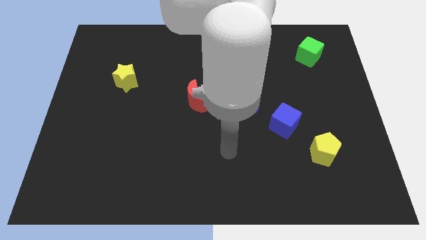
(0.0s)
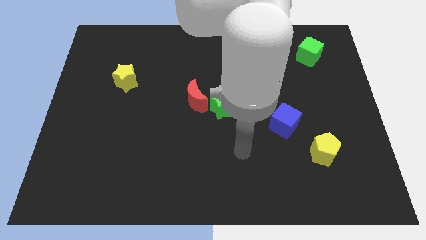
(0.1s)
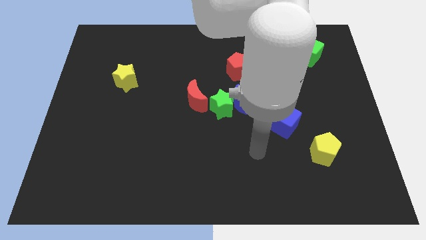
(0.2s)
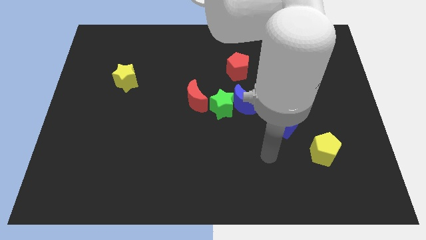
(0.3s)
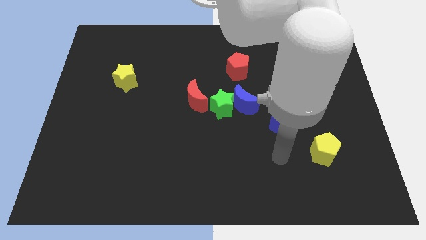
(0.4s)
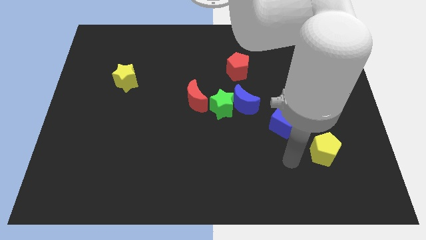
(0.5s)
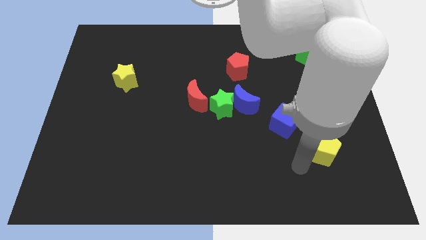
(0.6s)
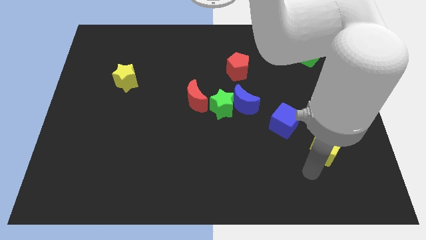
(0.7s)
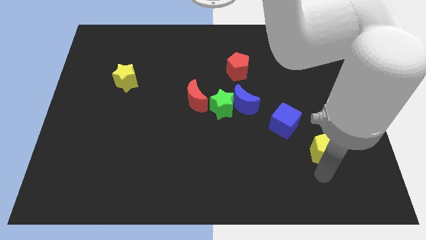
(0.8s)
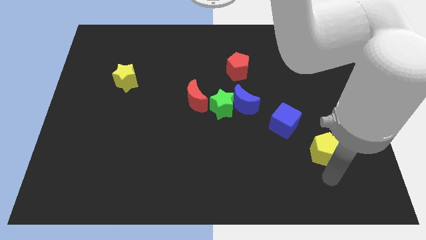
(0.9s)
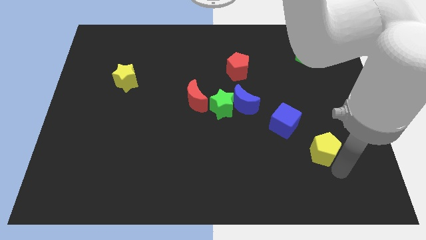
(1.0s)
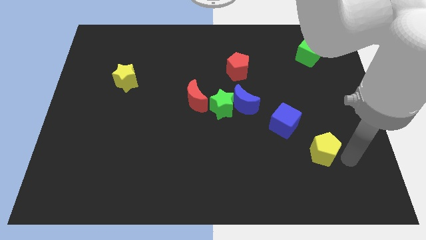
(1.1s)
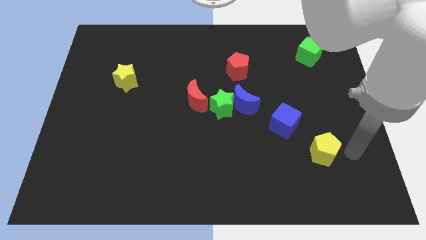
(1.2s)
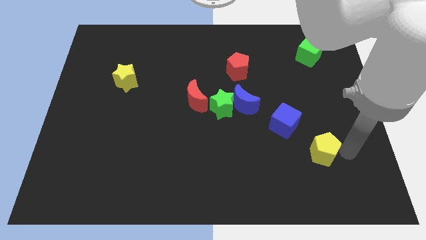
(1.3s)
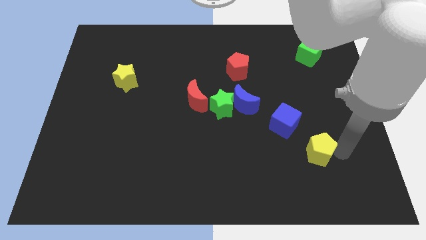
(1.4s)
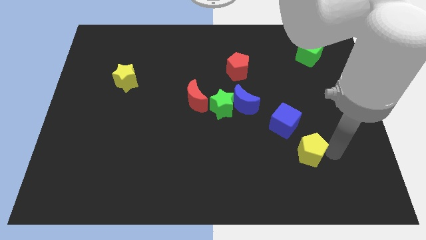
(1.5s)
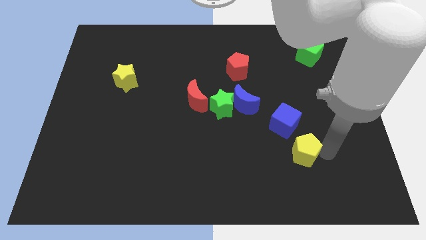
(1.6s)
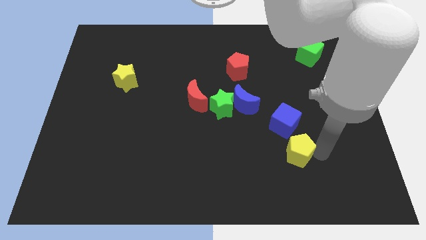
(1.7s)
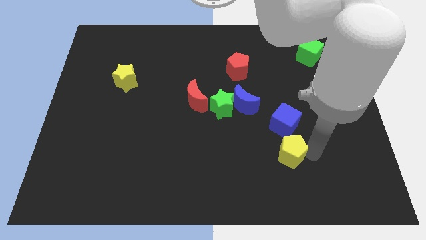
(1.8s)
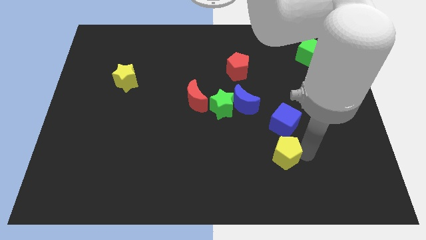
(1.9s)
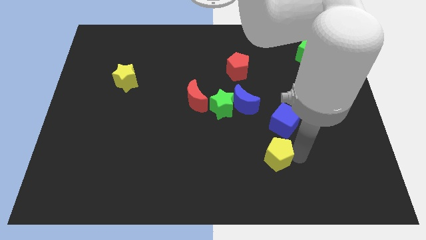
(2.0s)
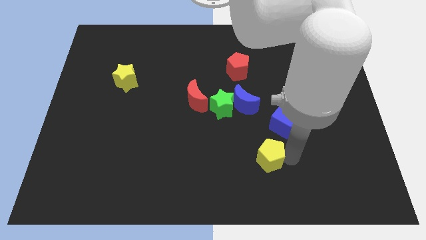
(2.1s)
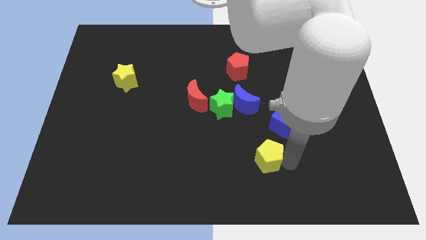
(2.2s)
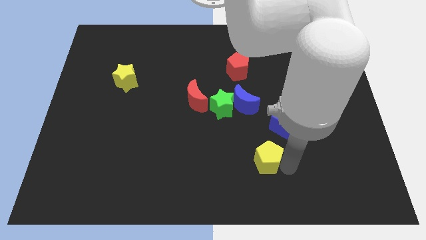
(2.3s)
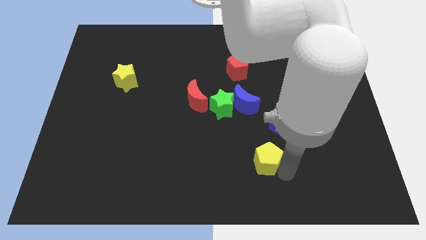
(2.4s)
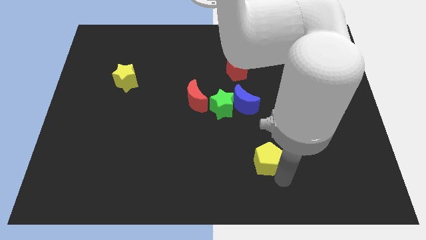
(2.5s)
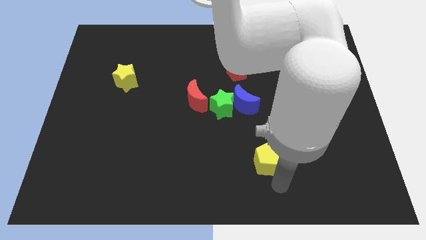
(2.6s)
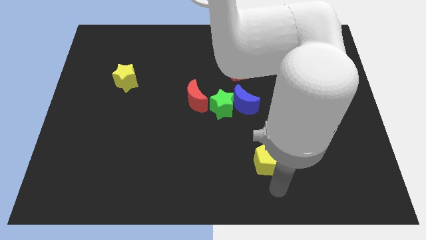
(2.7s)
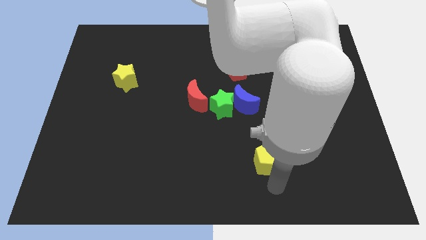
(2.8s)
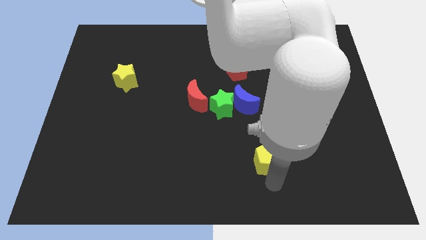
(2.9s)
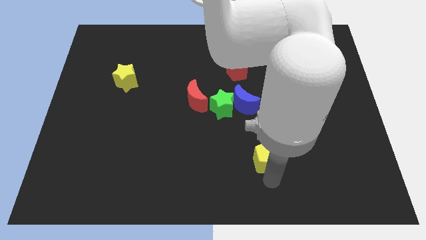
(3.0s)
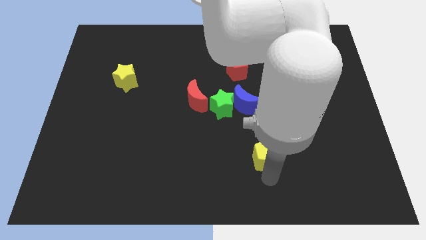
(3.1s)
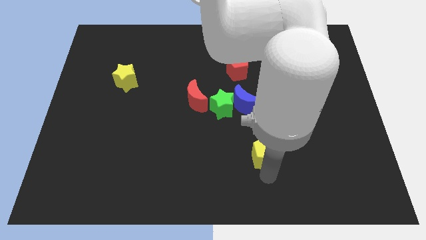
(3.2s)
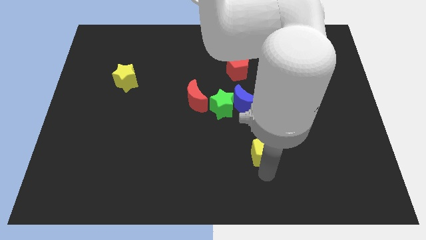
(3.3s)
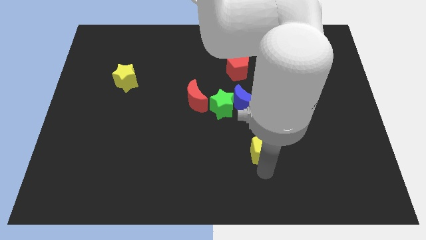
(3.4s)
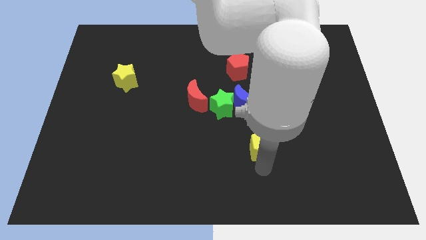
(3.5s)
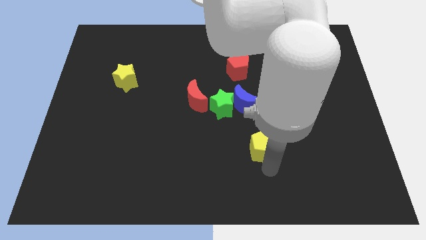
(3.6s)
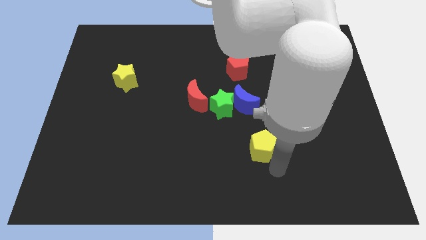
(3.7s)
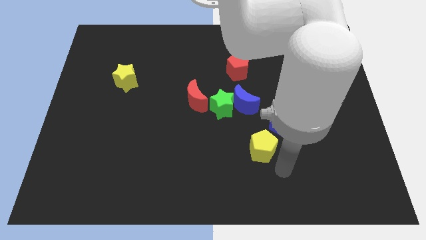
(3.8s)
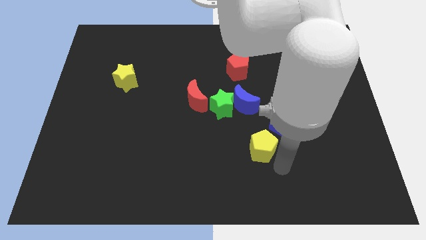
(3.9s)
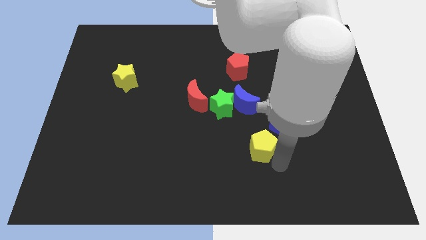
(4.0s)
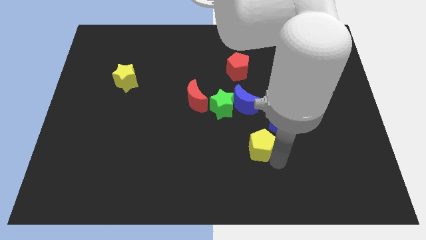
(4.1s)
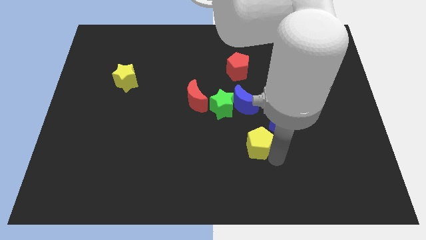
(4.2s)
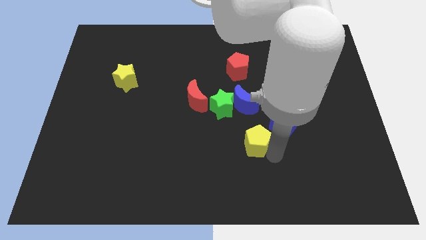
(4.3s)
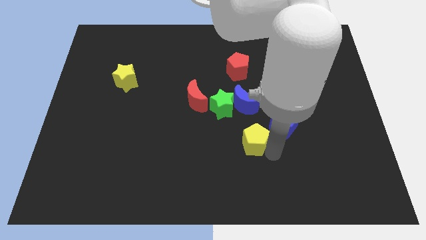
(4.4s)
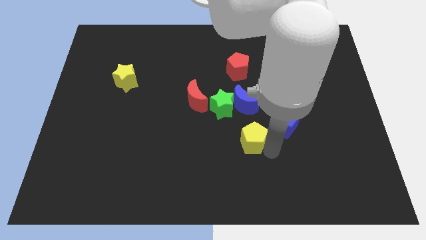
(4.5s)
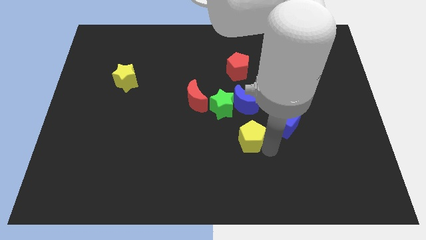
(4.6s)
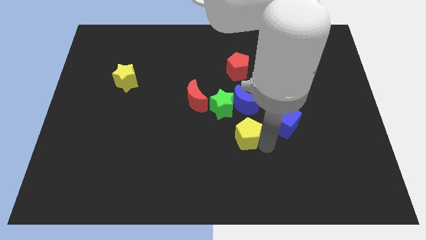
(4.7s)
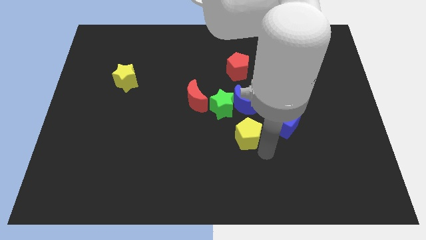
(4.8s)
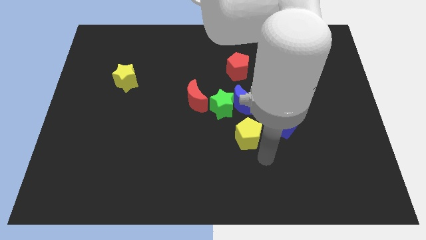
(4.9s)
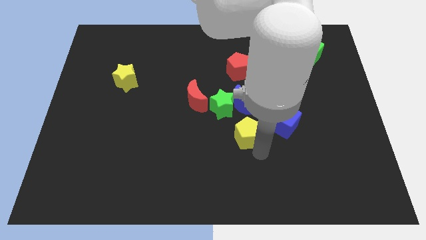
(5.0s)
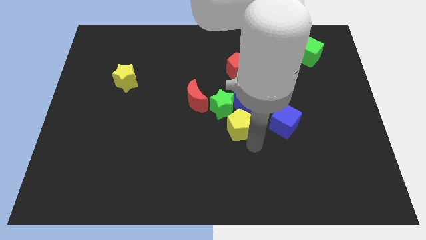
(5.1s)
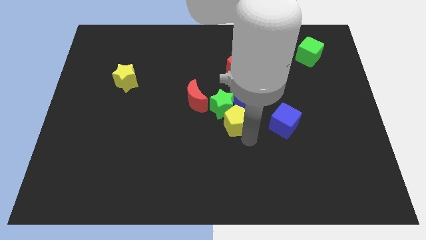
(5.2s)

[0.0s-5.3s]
push the yellow pentagon to the green star

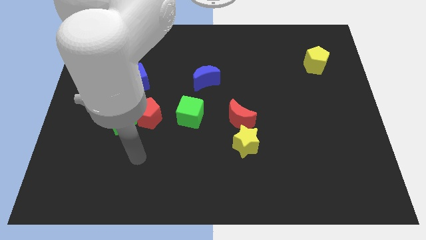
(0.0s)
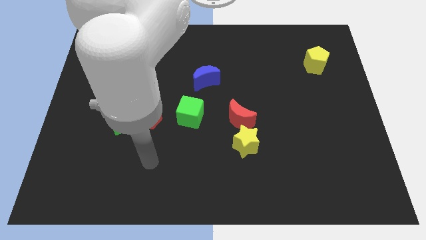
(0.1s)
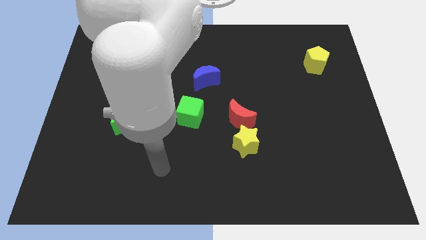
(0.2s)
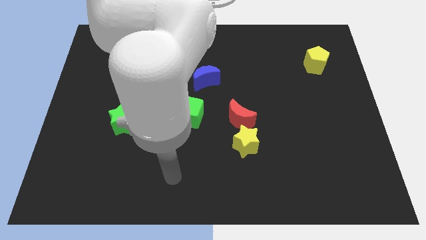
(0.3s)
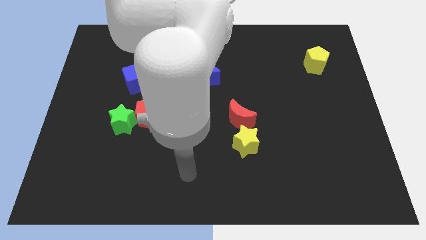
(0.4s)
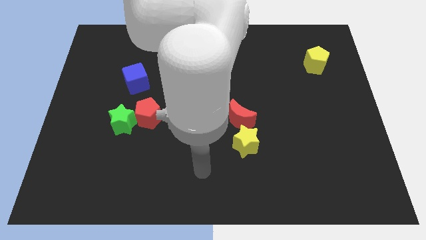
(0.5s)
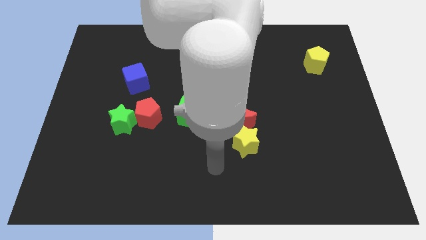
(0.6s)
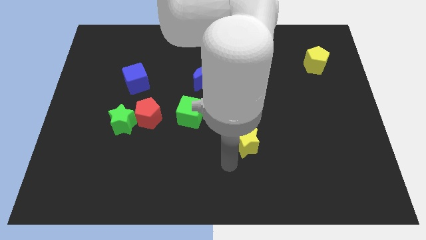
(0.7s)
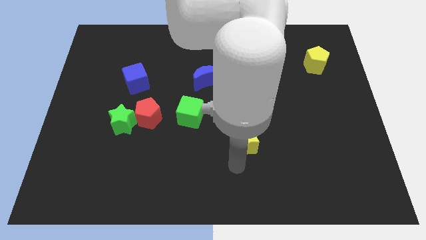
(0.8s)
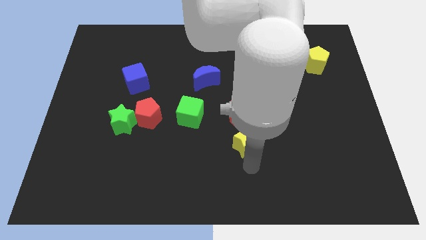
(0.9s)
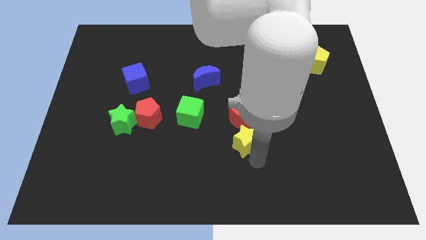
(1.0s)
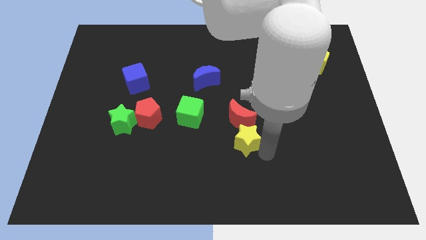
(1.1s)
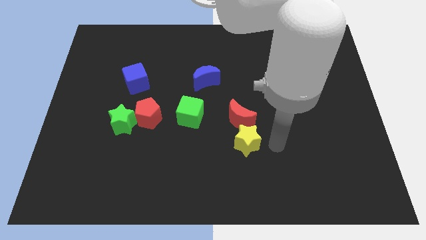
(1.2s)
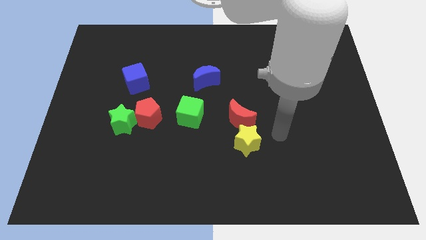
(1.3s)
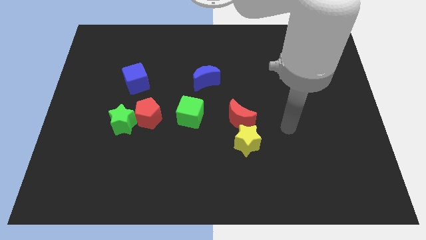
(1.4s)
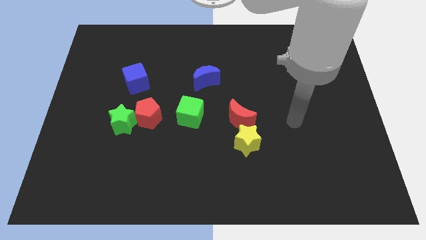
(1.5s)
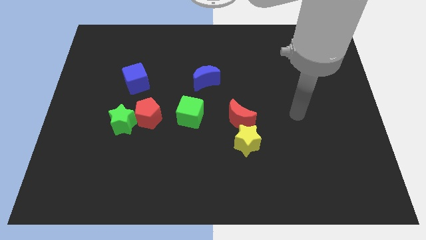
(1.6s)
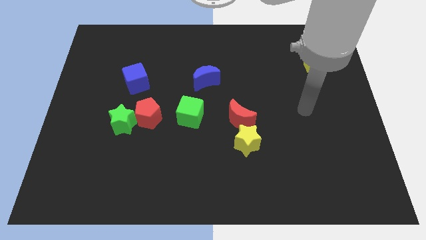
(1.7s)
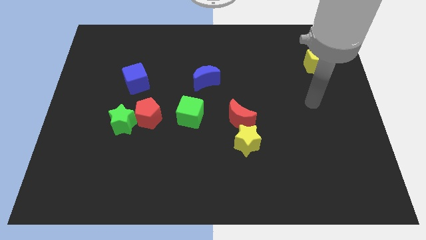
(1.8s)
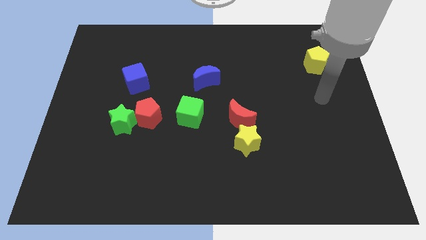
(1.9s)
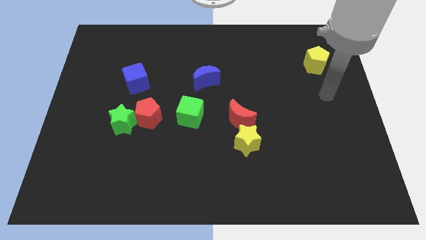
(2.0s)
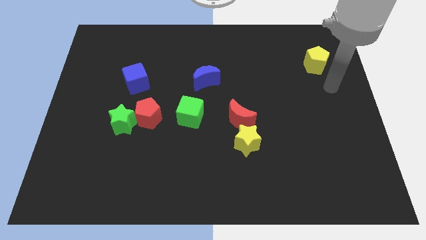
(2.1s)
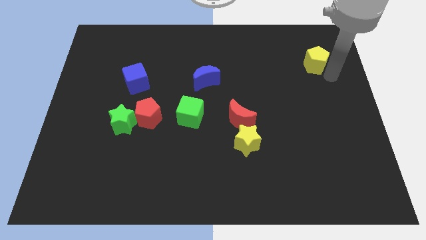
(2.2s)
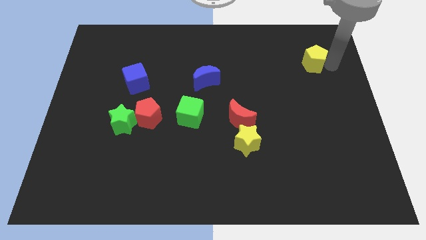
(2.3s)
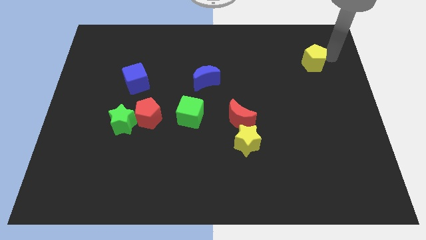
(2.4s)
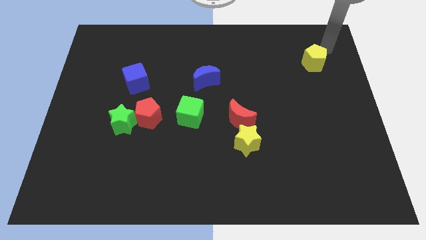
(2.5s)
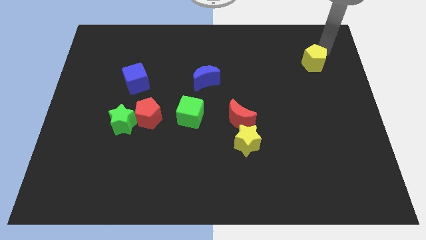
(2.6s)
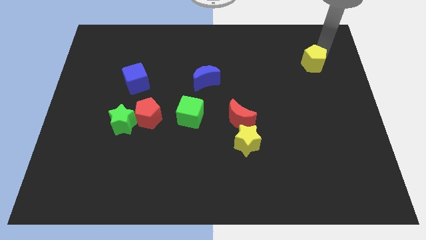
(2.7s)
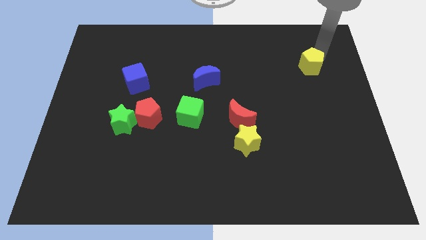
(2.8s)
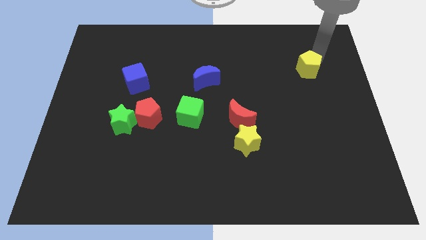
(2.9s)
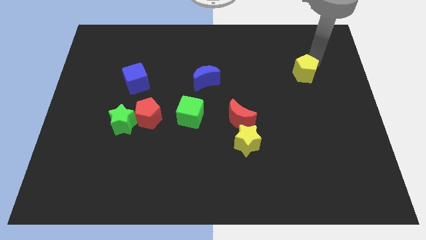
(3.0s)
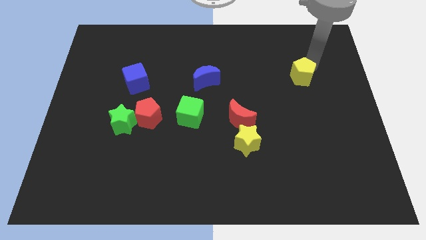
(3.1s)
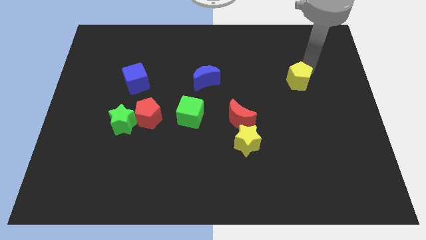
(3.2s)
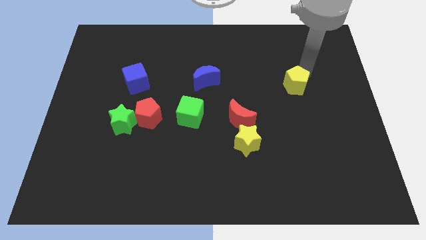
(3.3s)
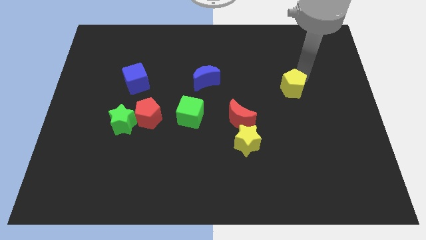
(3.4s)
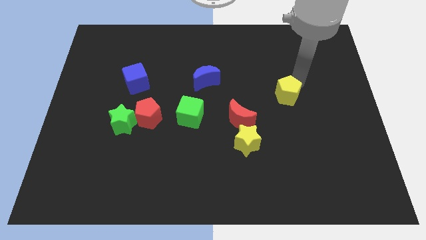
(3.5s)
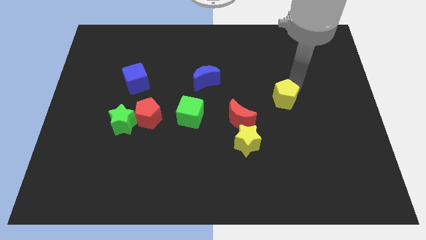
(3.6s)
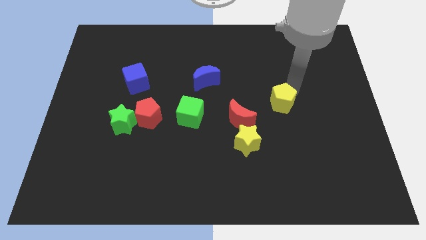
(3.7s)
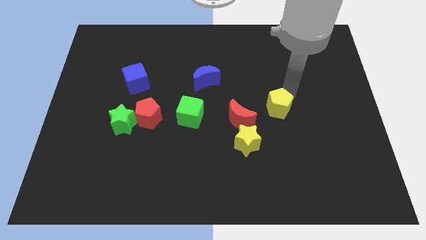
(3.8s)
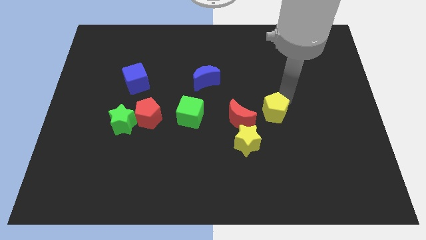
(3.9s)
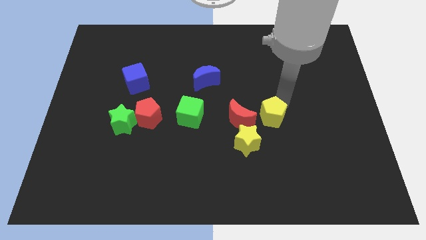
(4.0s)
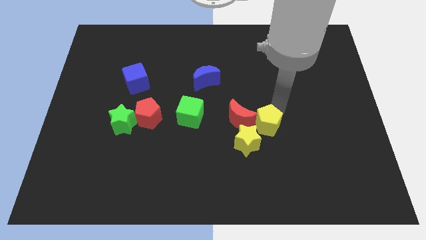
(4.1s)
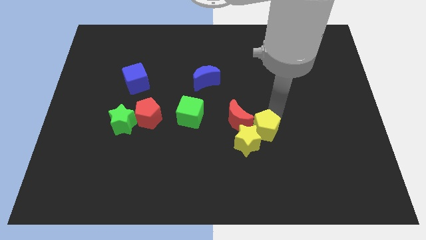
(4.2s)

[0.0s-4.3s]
push the yellow pentagon towards the yellow star
